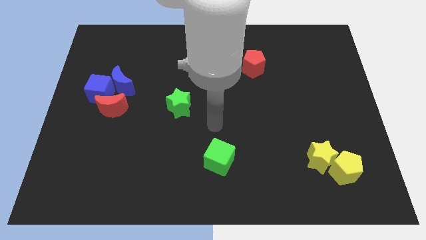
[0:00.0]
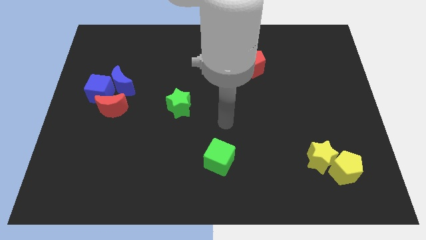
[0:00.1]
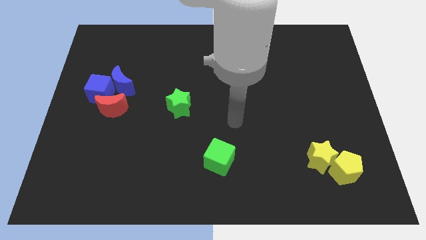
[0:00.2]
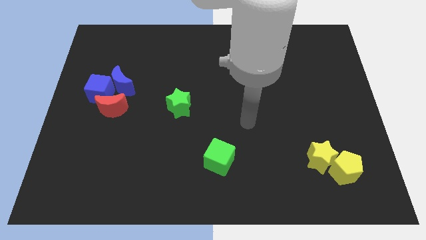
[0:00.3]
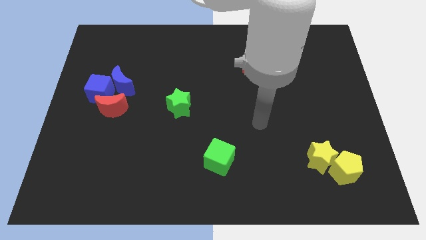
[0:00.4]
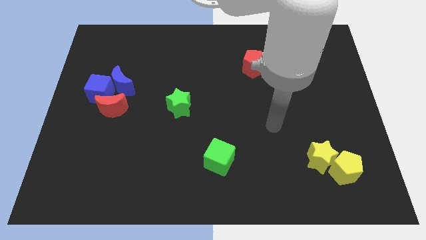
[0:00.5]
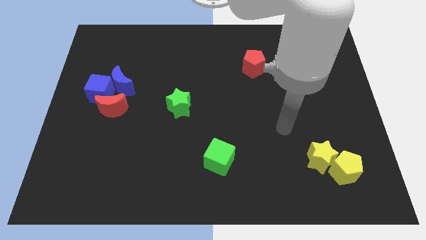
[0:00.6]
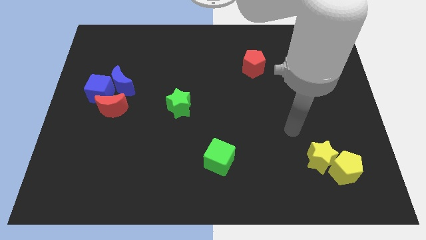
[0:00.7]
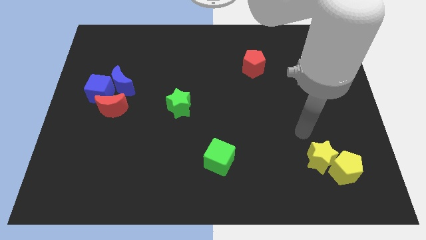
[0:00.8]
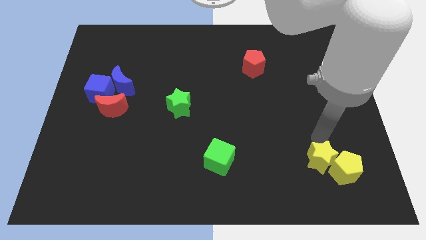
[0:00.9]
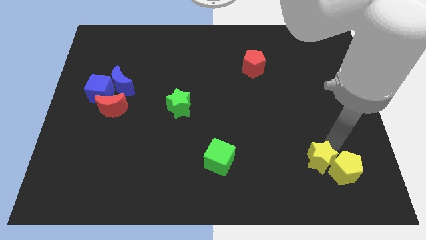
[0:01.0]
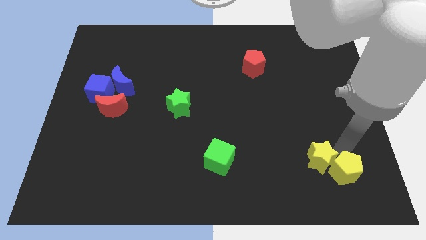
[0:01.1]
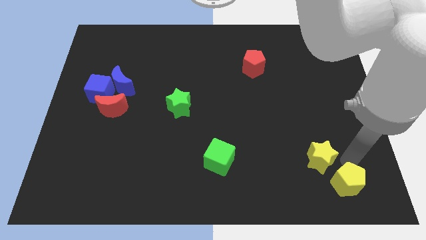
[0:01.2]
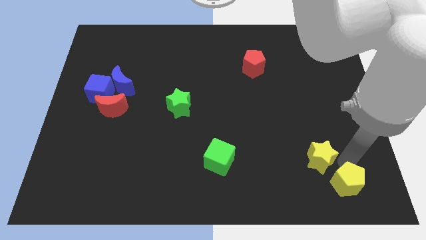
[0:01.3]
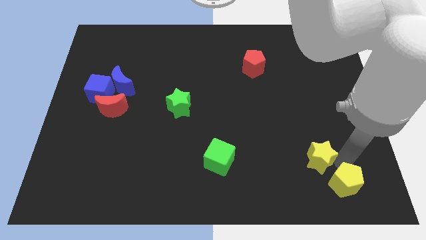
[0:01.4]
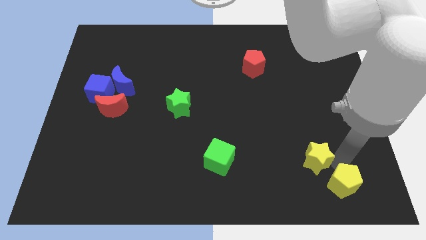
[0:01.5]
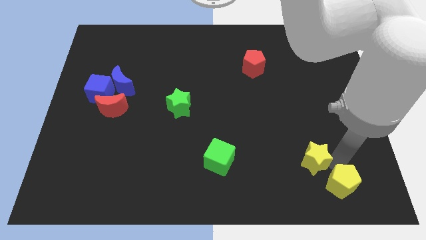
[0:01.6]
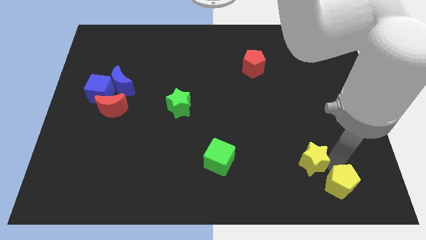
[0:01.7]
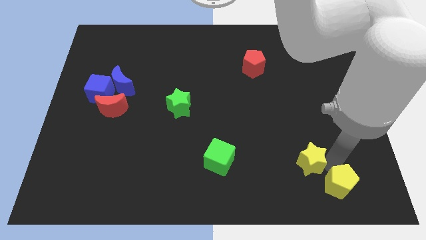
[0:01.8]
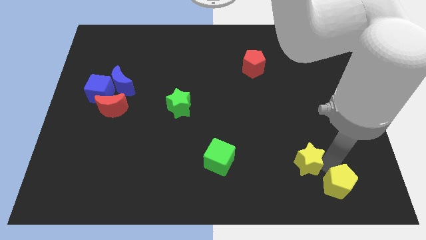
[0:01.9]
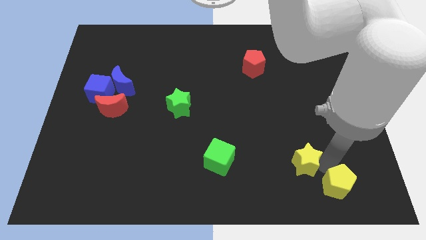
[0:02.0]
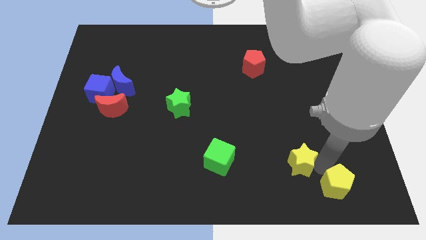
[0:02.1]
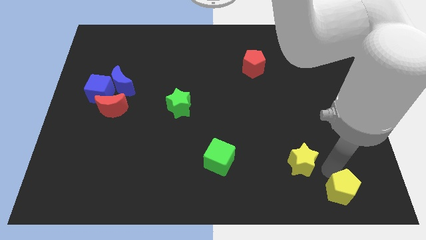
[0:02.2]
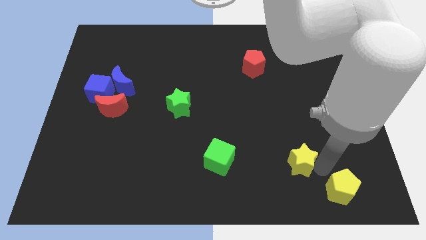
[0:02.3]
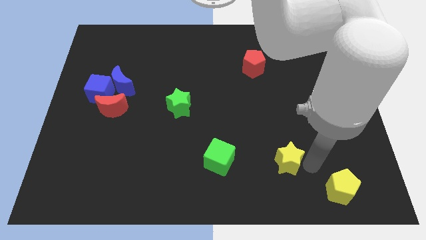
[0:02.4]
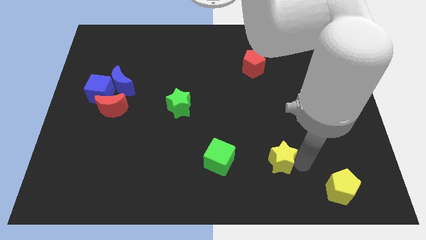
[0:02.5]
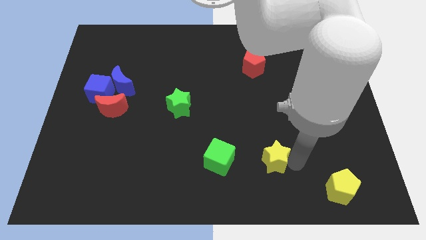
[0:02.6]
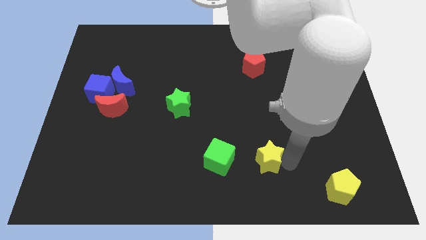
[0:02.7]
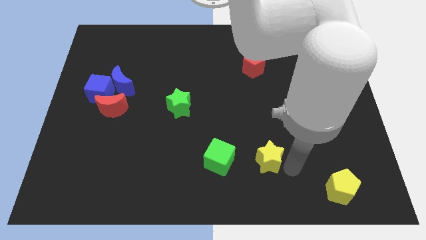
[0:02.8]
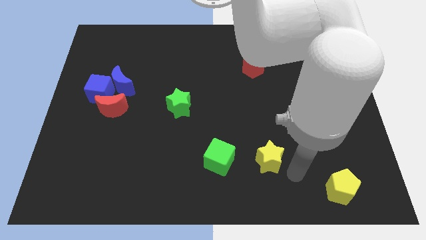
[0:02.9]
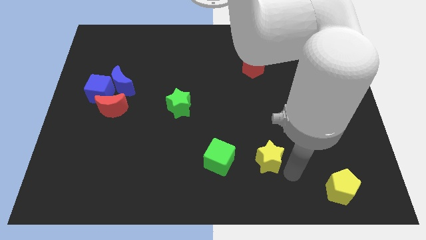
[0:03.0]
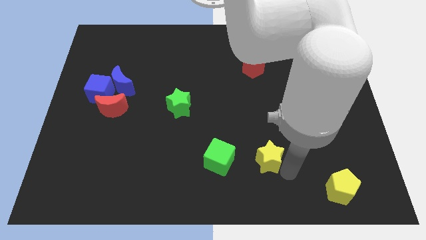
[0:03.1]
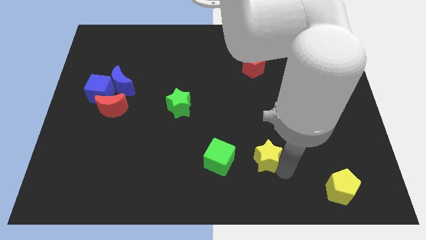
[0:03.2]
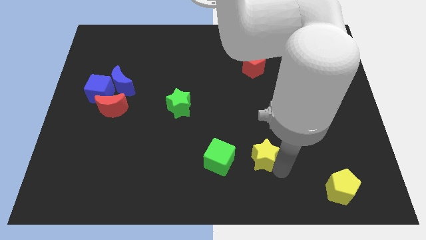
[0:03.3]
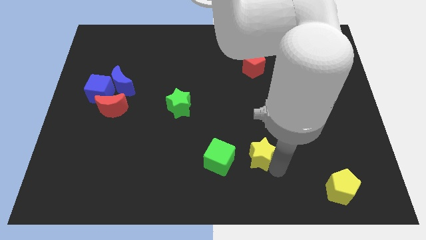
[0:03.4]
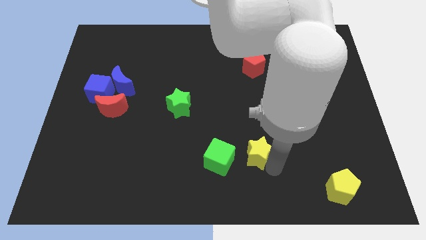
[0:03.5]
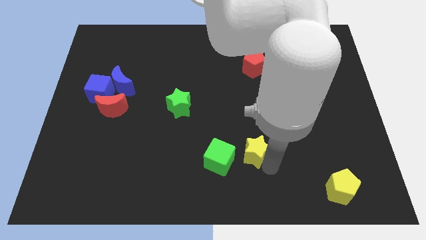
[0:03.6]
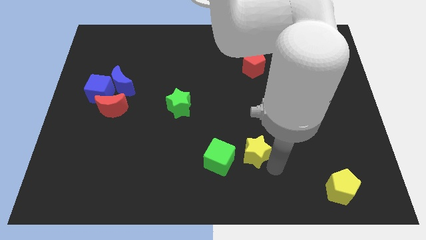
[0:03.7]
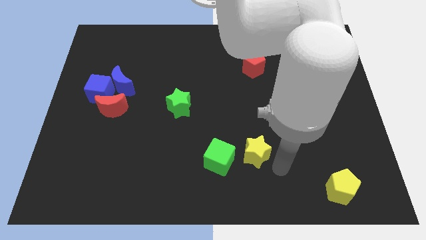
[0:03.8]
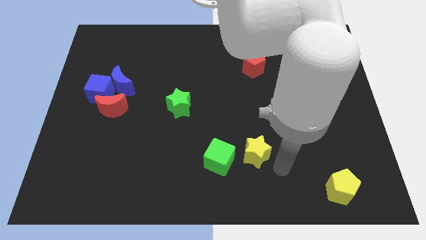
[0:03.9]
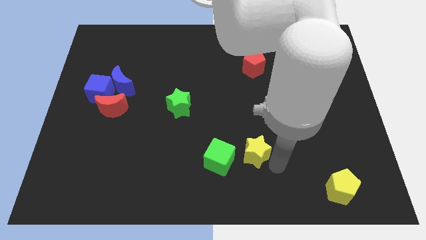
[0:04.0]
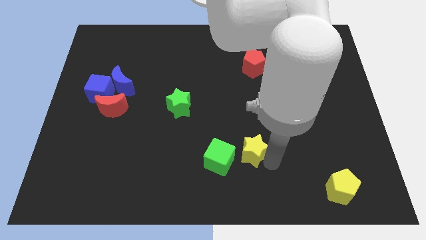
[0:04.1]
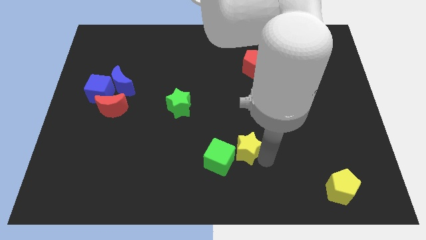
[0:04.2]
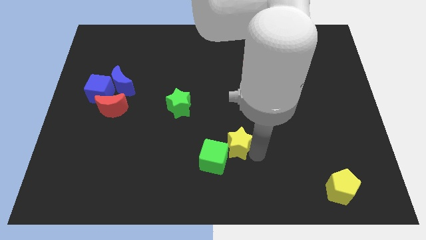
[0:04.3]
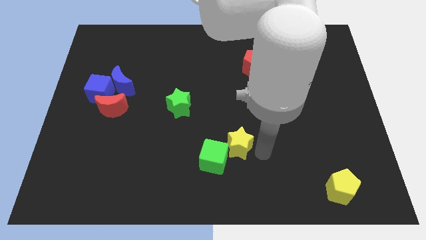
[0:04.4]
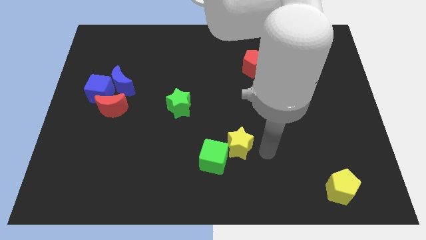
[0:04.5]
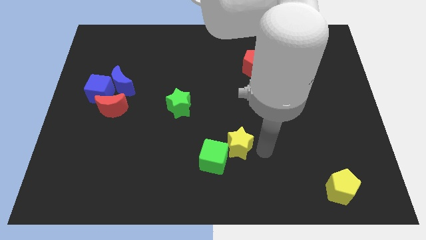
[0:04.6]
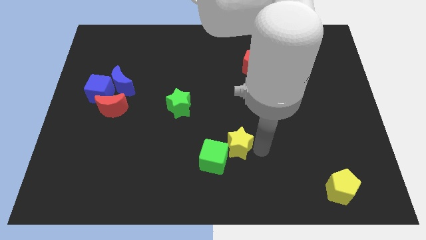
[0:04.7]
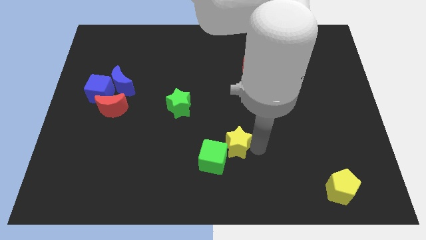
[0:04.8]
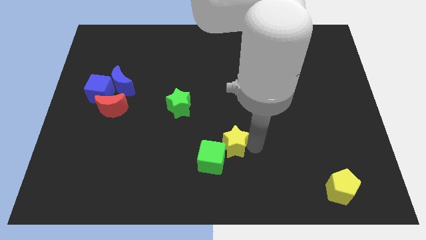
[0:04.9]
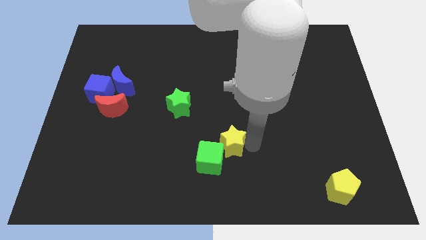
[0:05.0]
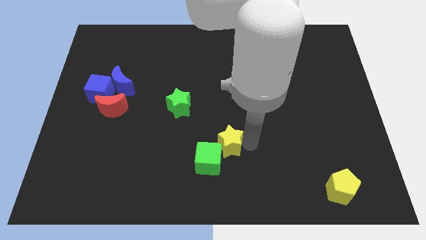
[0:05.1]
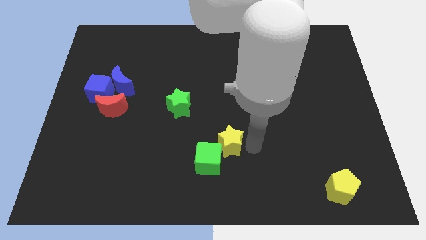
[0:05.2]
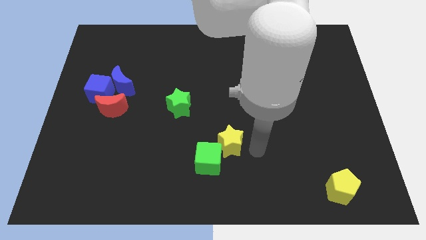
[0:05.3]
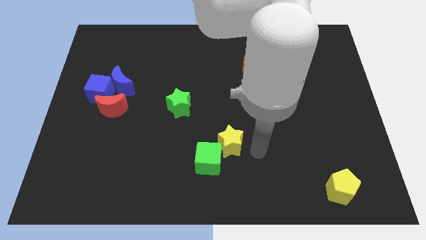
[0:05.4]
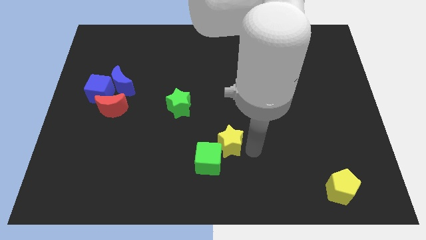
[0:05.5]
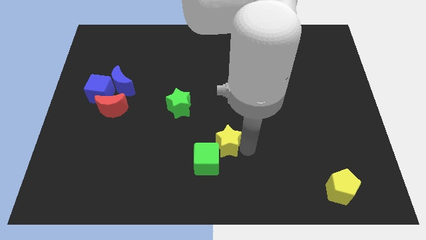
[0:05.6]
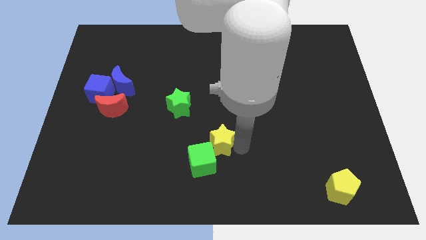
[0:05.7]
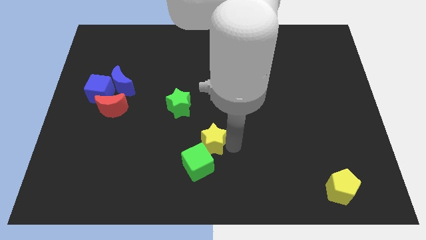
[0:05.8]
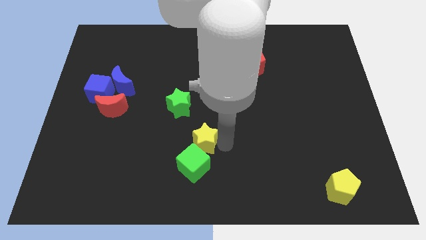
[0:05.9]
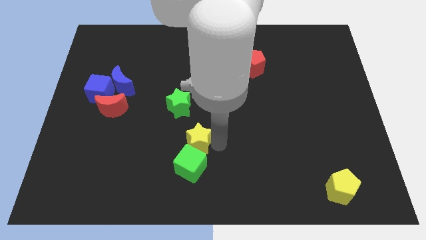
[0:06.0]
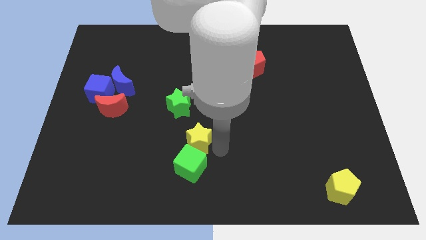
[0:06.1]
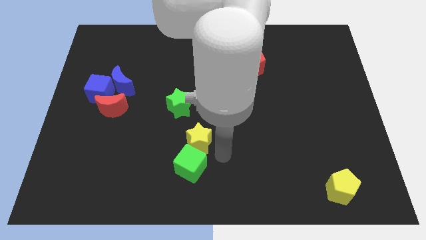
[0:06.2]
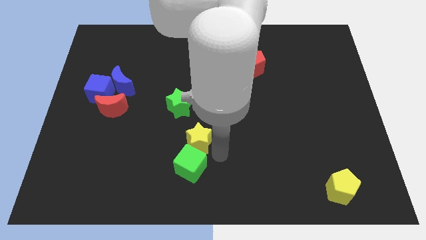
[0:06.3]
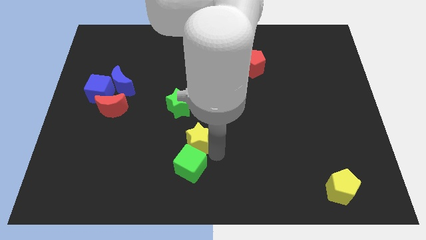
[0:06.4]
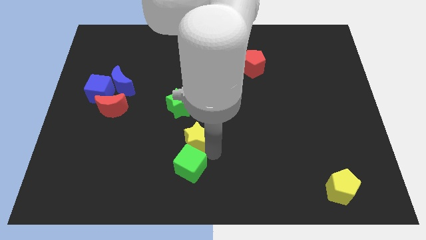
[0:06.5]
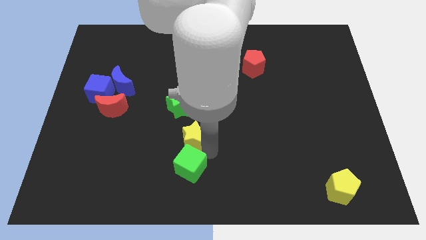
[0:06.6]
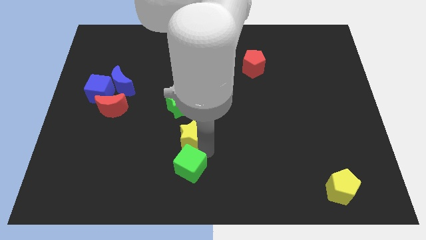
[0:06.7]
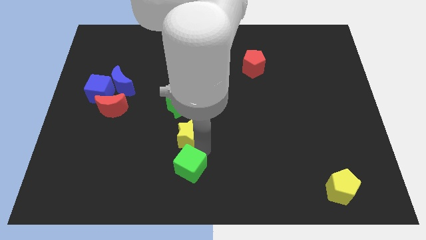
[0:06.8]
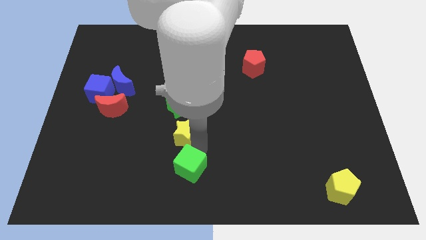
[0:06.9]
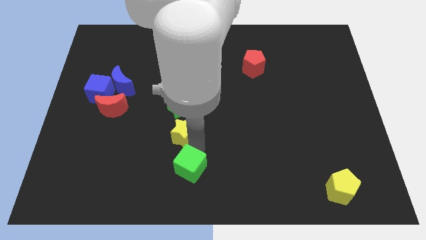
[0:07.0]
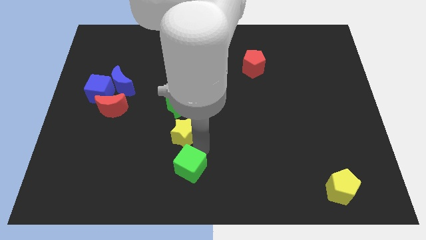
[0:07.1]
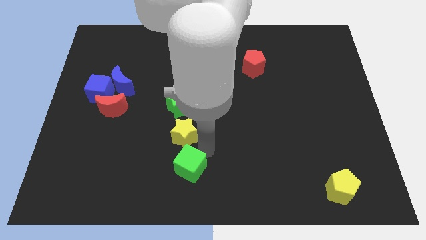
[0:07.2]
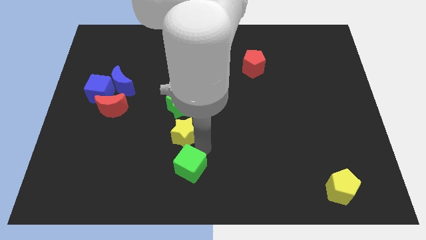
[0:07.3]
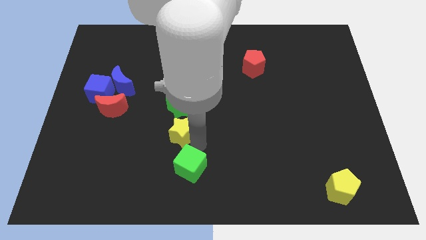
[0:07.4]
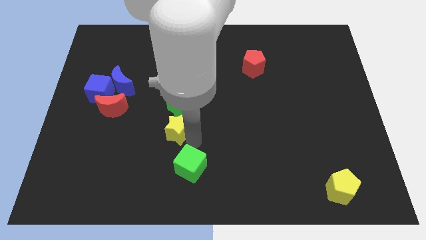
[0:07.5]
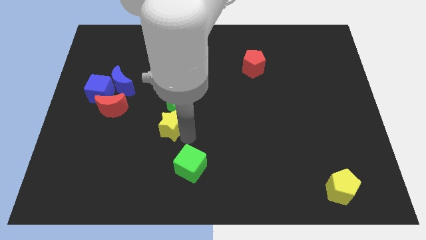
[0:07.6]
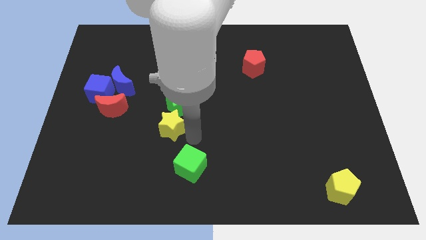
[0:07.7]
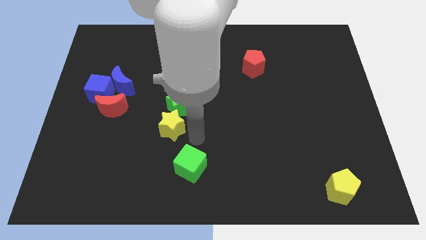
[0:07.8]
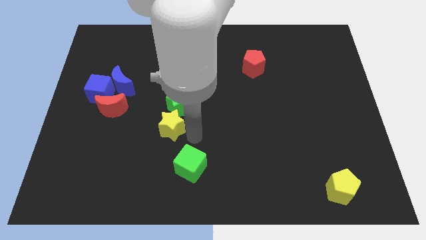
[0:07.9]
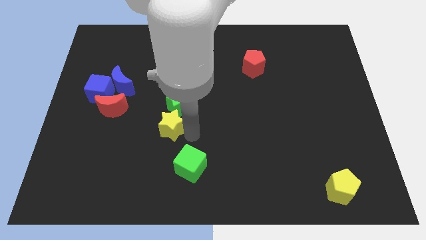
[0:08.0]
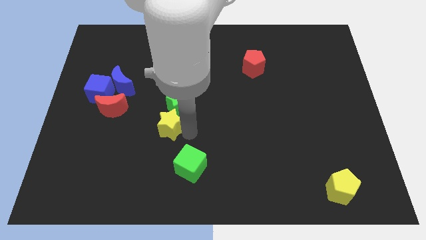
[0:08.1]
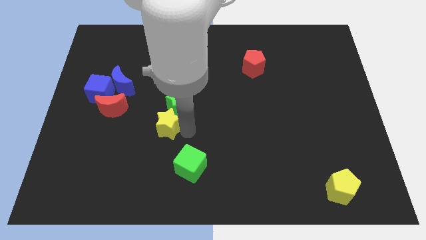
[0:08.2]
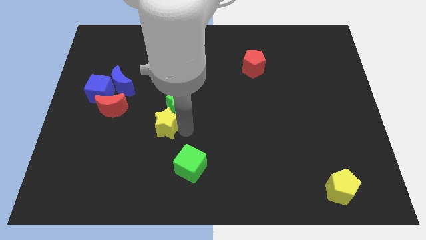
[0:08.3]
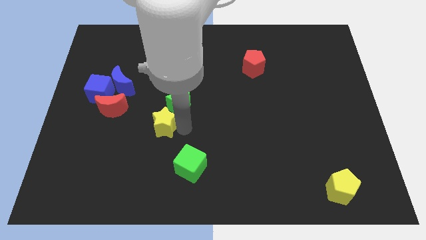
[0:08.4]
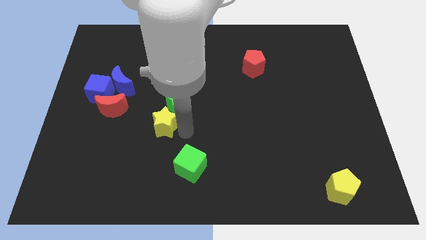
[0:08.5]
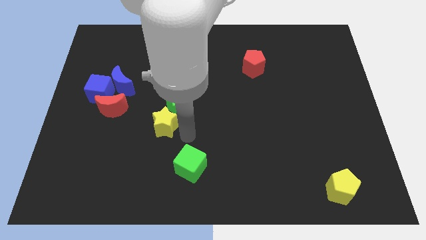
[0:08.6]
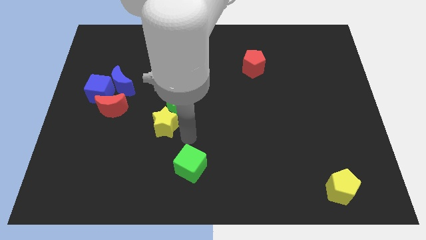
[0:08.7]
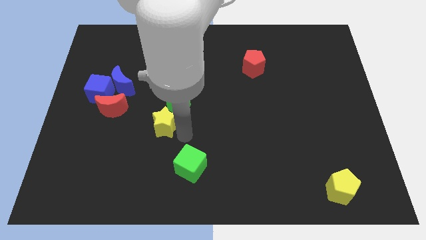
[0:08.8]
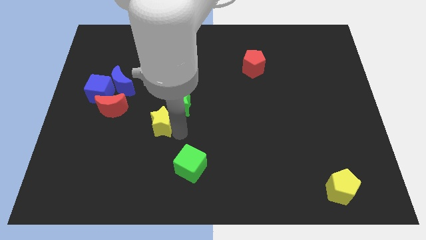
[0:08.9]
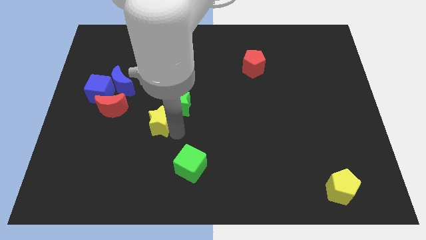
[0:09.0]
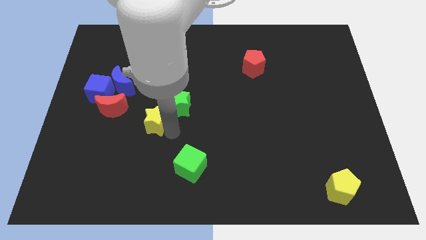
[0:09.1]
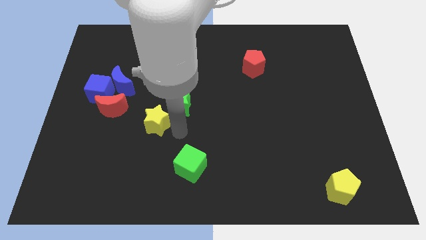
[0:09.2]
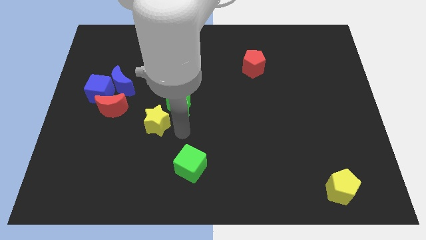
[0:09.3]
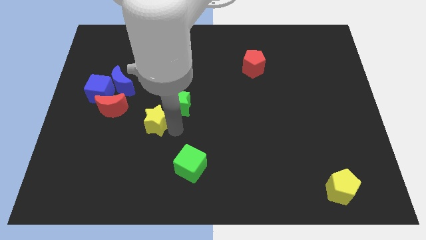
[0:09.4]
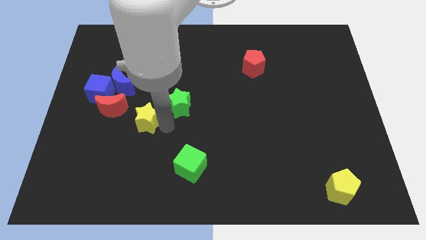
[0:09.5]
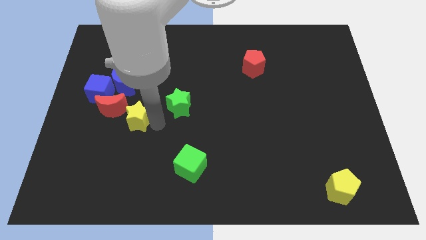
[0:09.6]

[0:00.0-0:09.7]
move the yellow star to the bottom right side of the blue cube
